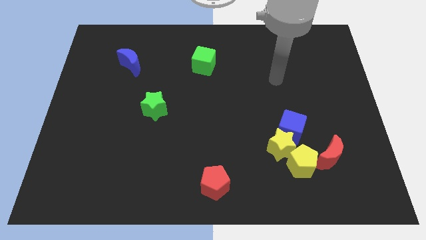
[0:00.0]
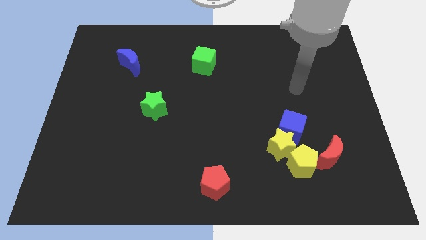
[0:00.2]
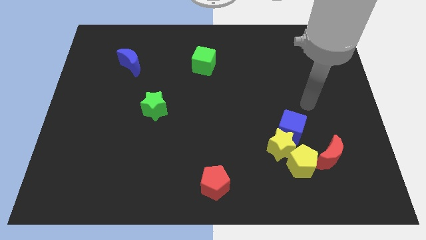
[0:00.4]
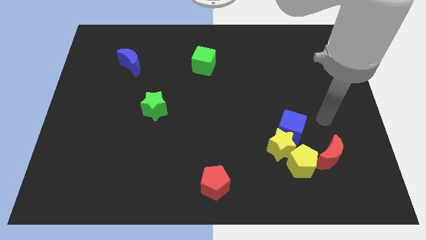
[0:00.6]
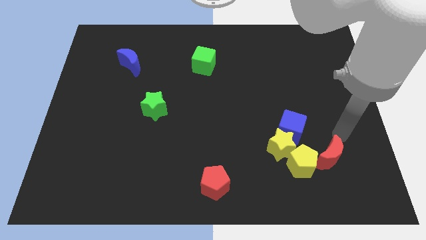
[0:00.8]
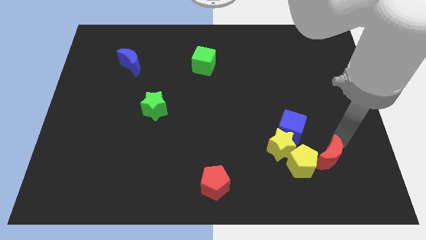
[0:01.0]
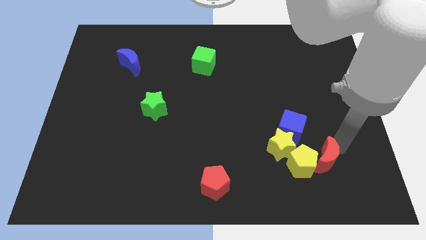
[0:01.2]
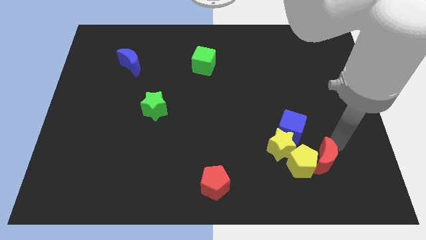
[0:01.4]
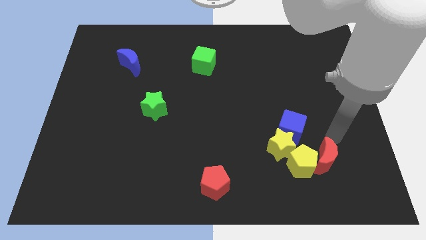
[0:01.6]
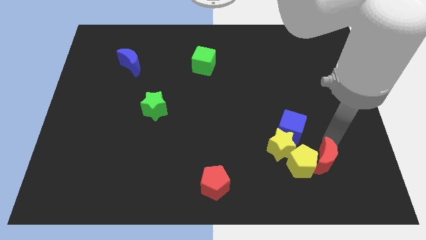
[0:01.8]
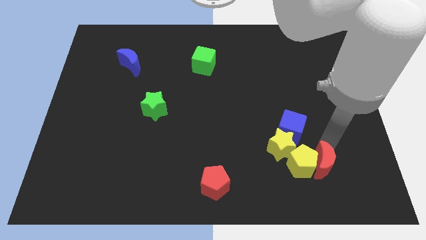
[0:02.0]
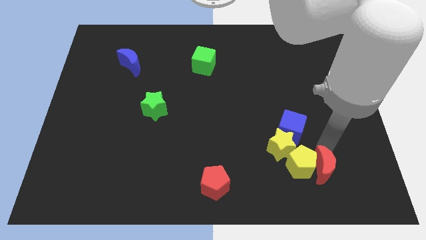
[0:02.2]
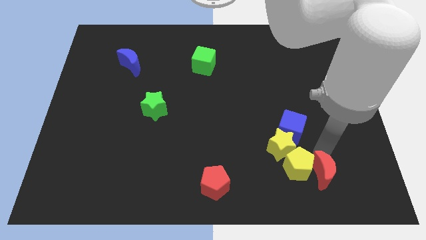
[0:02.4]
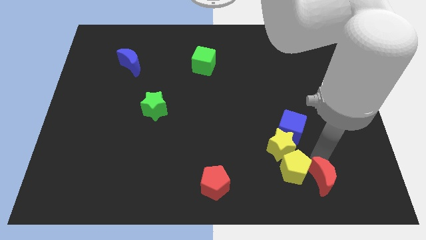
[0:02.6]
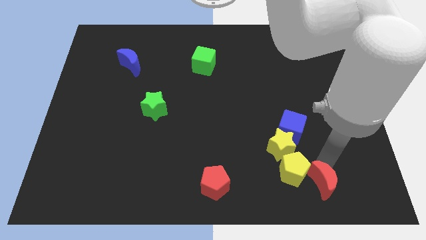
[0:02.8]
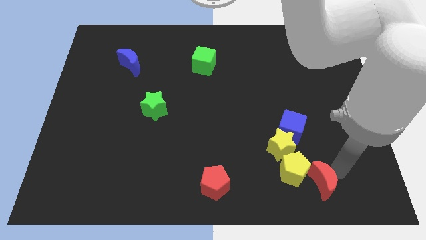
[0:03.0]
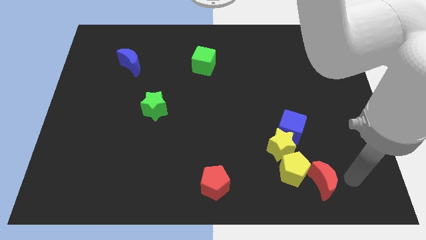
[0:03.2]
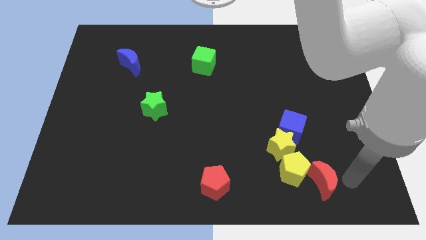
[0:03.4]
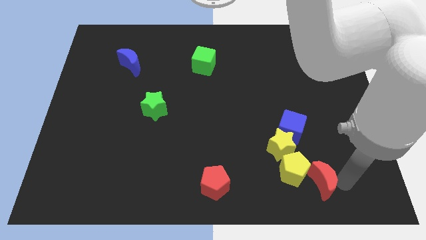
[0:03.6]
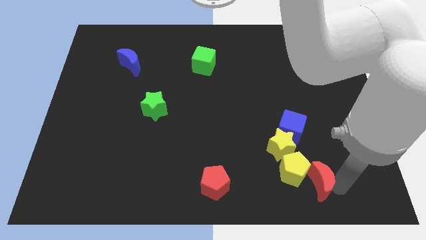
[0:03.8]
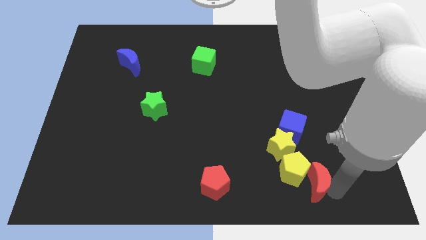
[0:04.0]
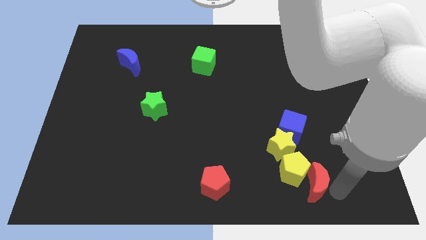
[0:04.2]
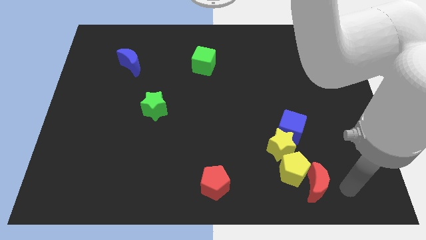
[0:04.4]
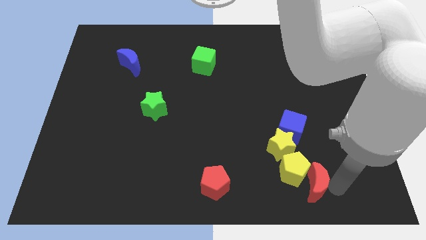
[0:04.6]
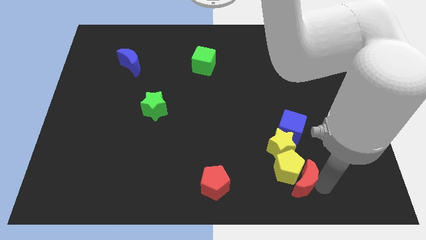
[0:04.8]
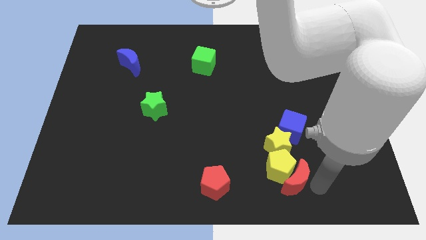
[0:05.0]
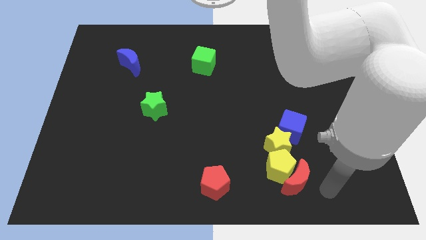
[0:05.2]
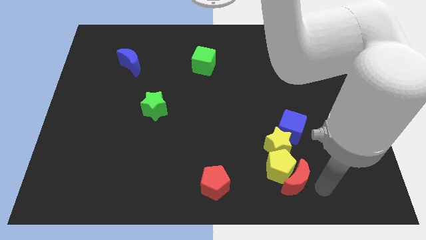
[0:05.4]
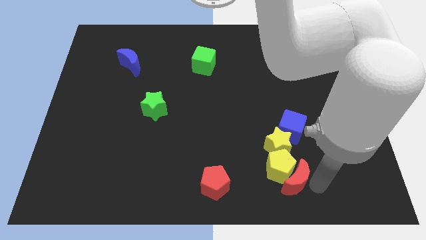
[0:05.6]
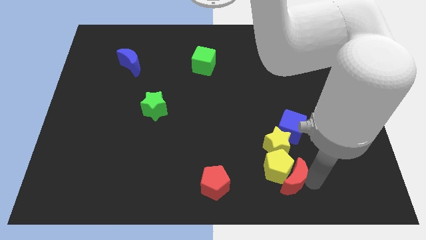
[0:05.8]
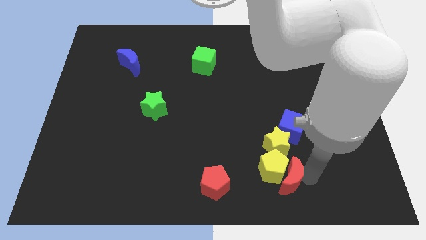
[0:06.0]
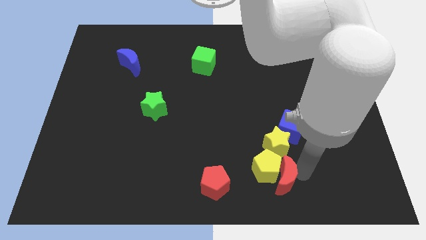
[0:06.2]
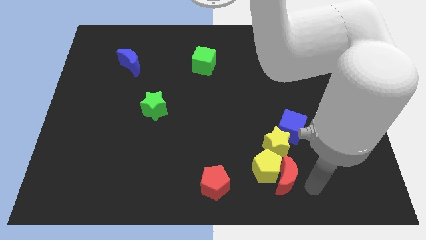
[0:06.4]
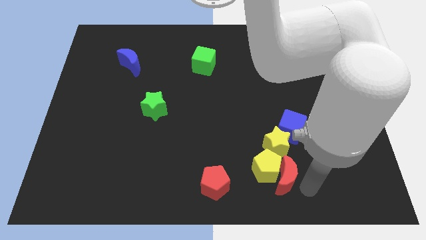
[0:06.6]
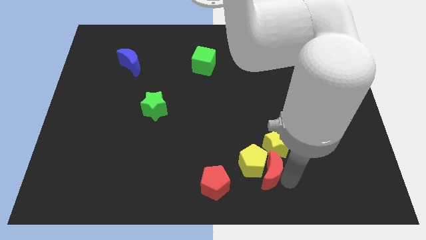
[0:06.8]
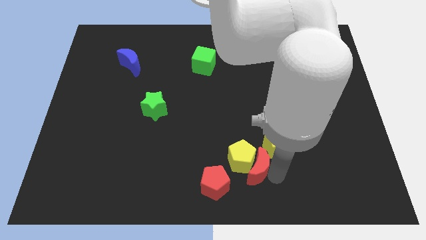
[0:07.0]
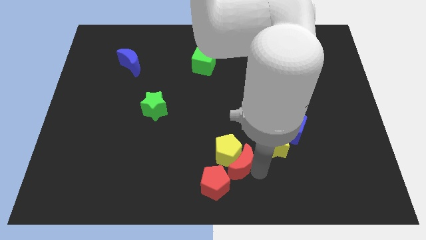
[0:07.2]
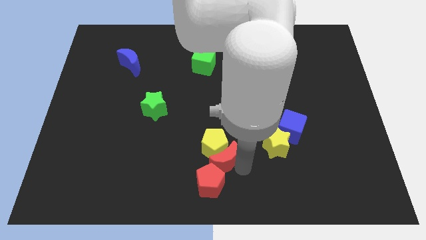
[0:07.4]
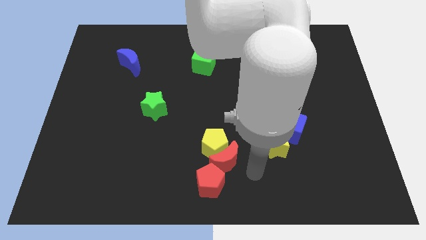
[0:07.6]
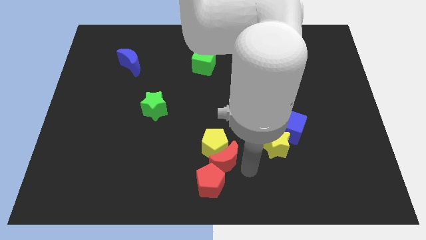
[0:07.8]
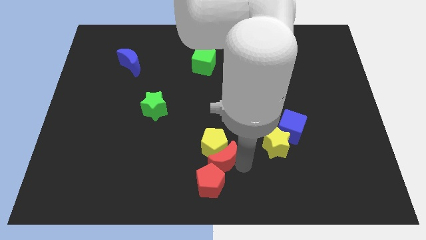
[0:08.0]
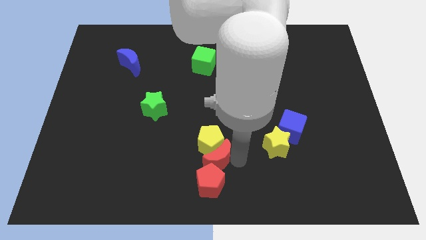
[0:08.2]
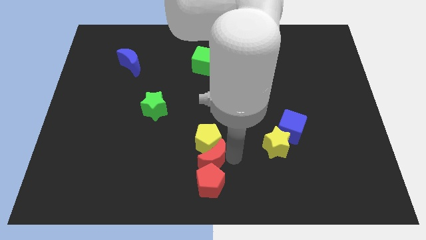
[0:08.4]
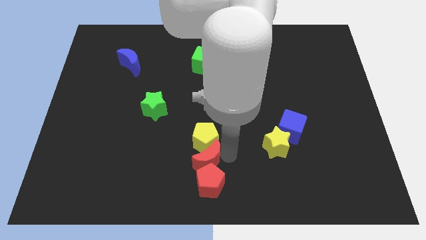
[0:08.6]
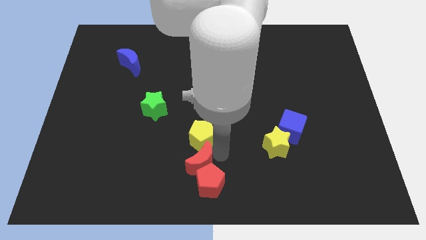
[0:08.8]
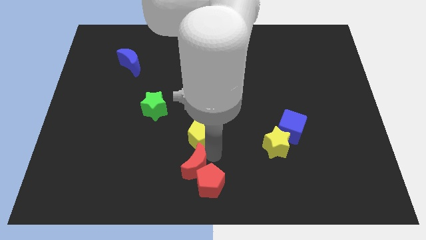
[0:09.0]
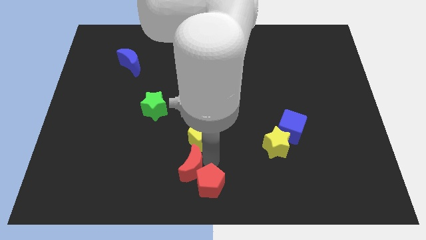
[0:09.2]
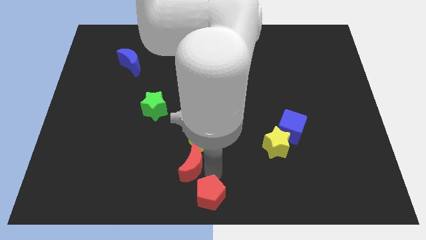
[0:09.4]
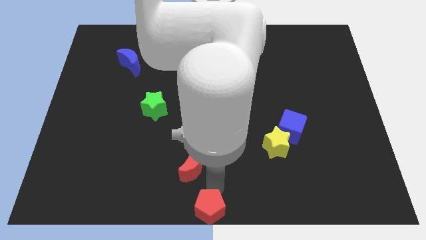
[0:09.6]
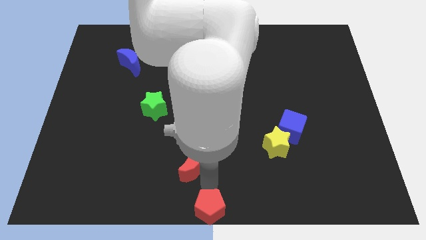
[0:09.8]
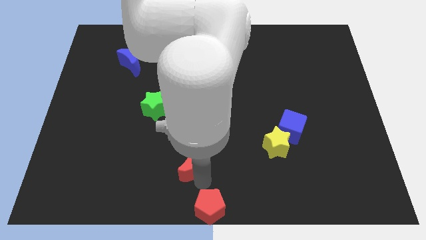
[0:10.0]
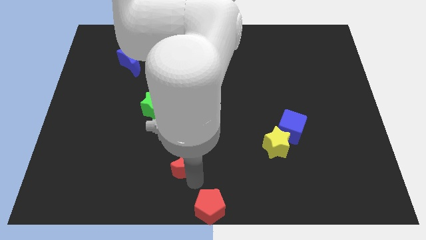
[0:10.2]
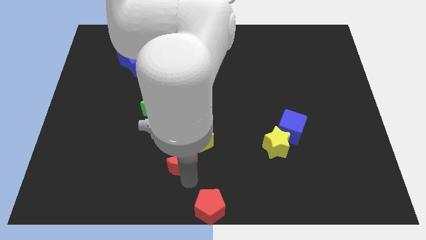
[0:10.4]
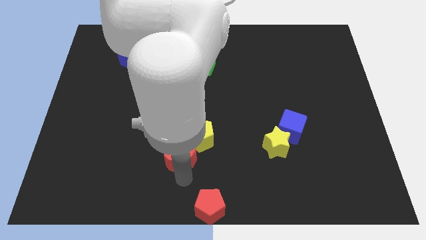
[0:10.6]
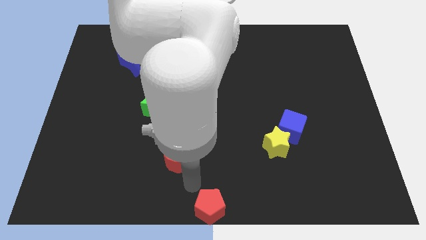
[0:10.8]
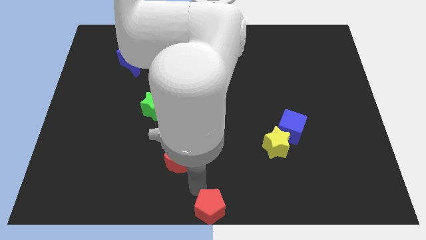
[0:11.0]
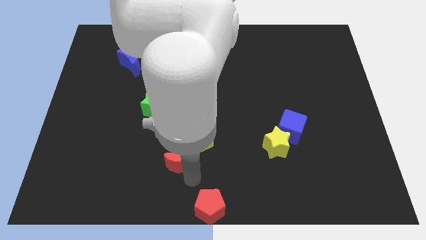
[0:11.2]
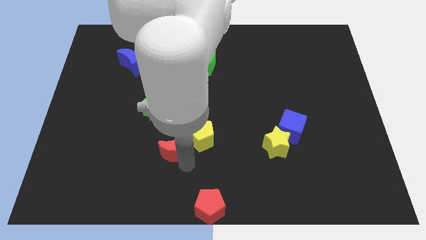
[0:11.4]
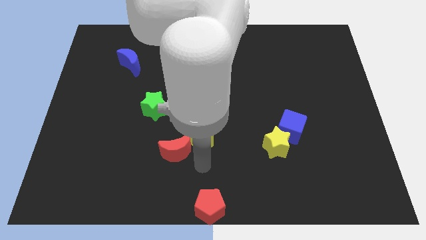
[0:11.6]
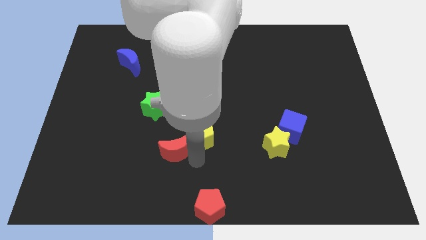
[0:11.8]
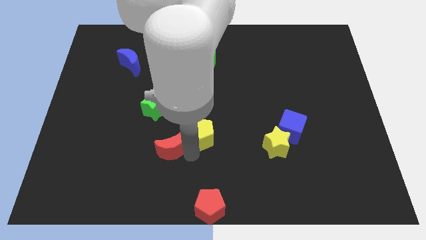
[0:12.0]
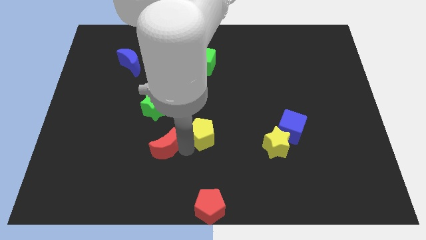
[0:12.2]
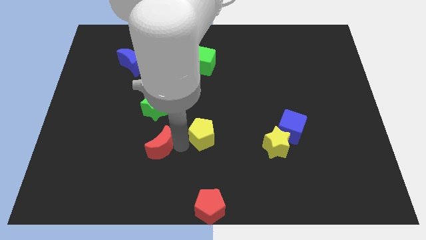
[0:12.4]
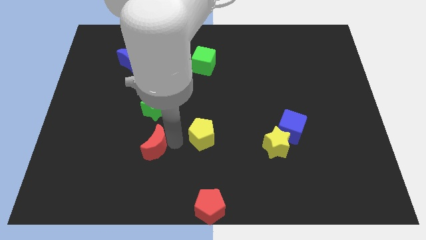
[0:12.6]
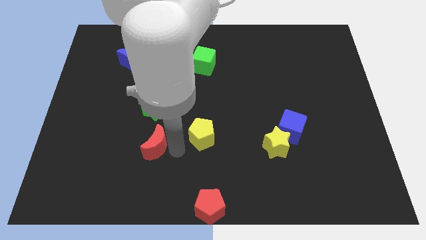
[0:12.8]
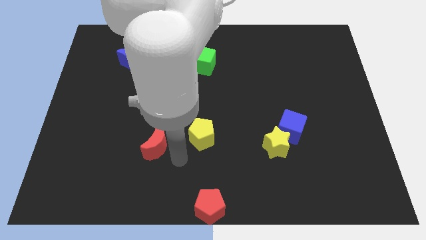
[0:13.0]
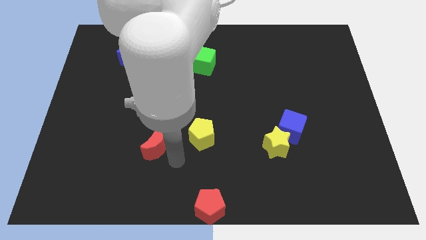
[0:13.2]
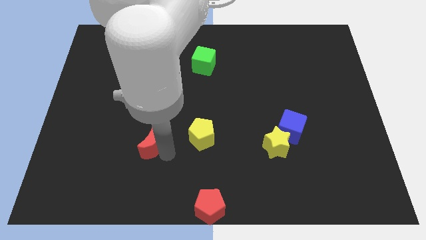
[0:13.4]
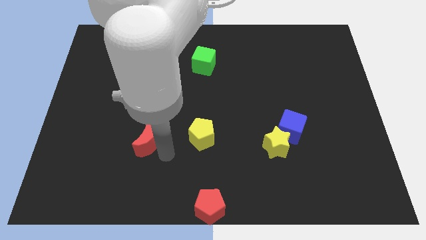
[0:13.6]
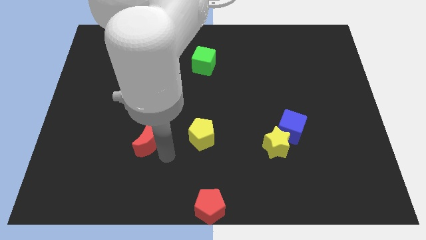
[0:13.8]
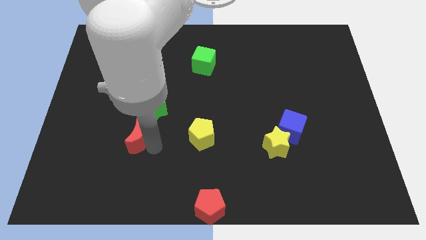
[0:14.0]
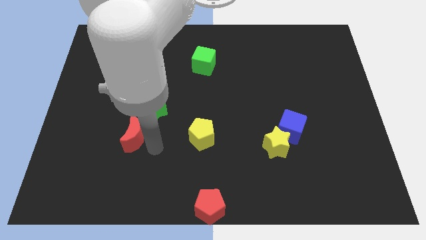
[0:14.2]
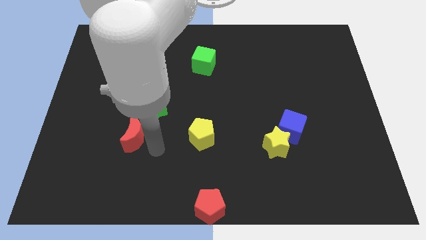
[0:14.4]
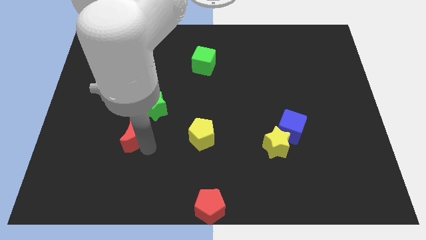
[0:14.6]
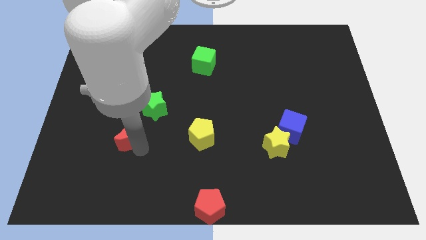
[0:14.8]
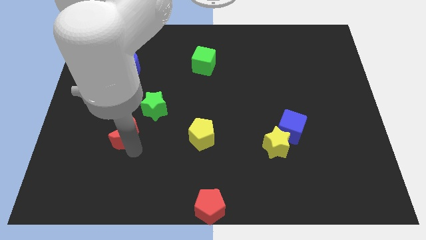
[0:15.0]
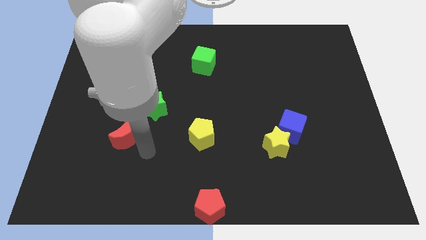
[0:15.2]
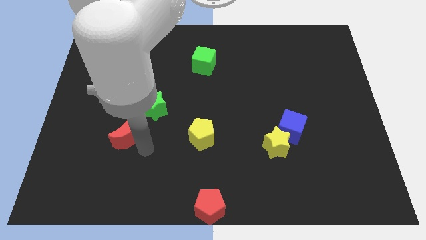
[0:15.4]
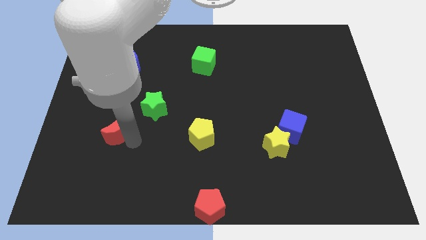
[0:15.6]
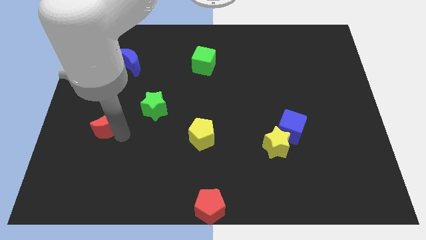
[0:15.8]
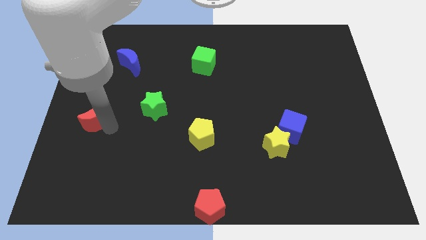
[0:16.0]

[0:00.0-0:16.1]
put the red moon to the left side of the board
